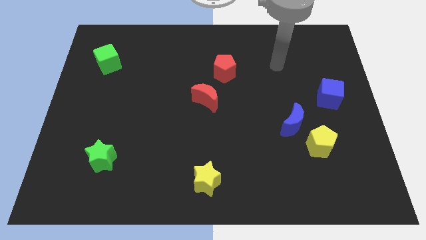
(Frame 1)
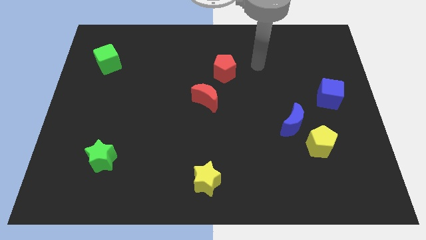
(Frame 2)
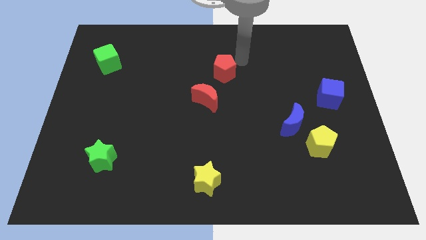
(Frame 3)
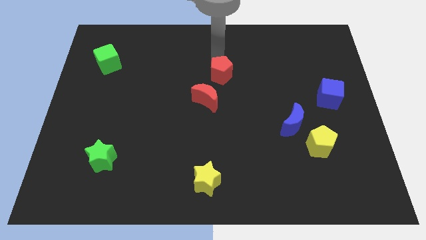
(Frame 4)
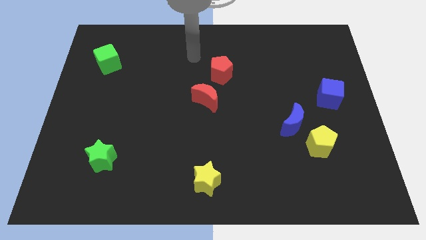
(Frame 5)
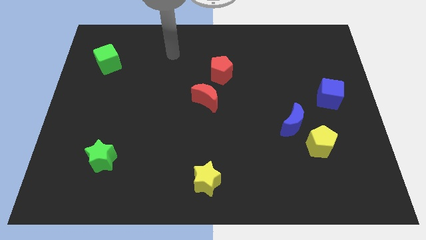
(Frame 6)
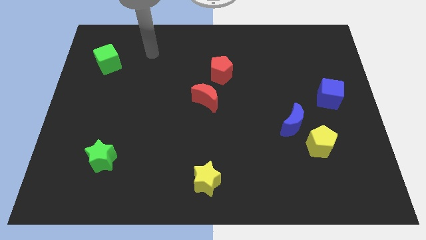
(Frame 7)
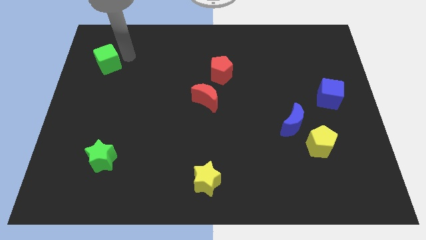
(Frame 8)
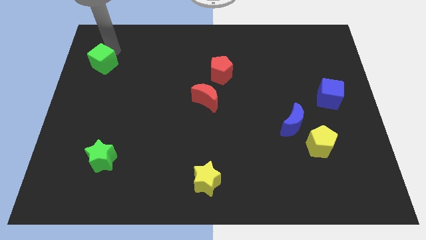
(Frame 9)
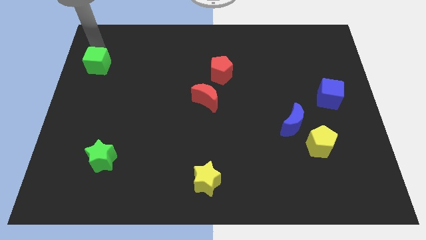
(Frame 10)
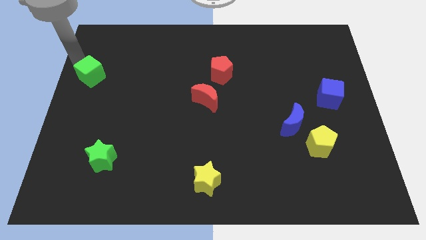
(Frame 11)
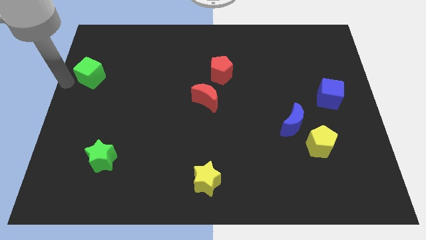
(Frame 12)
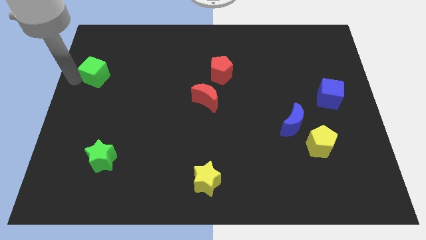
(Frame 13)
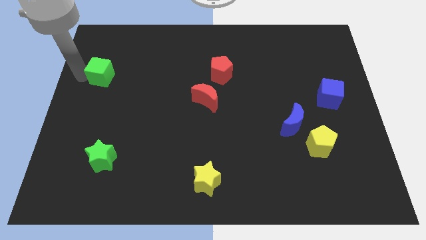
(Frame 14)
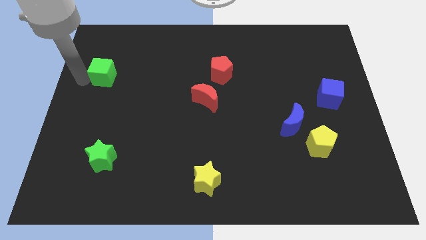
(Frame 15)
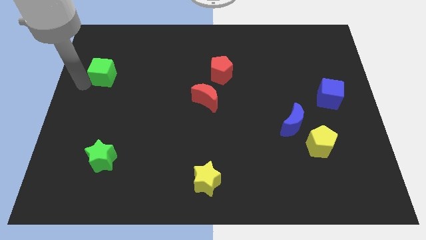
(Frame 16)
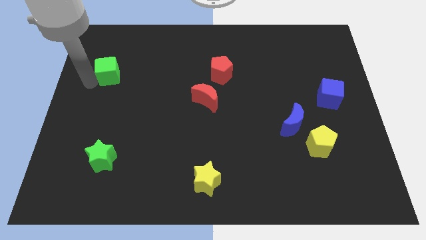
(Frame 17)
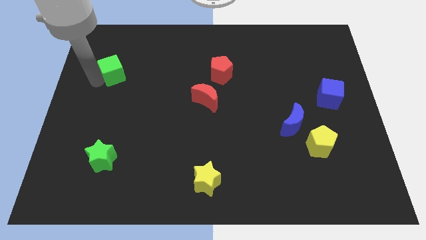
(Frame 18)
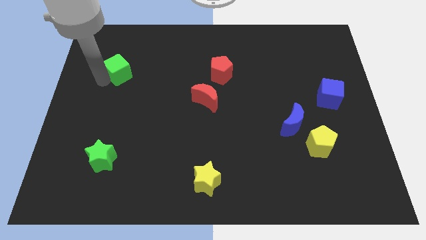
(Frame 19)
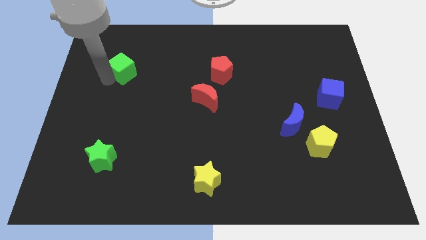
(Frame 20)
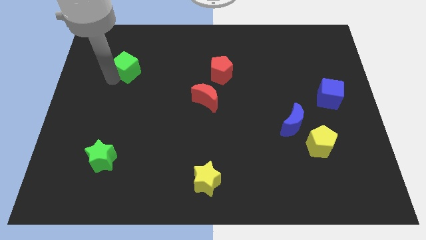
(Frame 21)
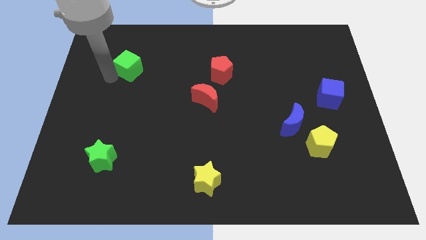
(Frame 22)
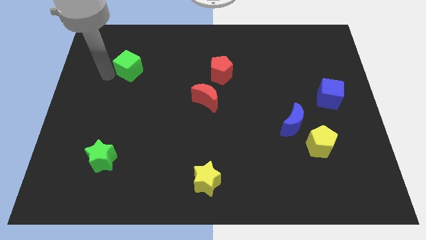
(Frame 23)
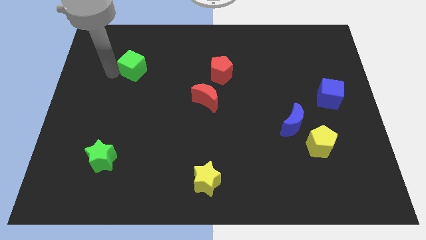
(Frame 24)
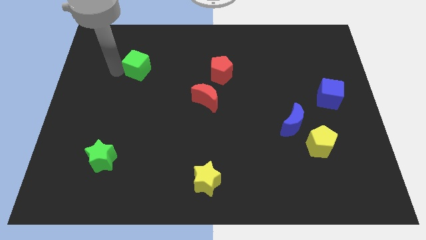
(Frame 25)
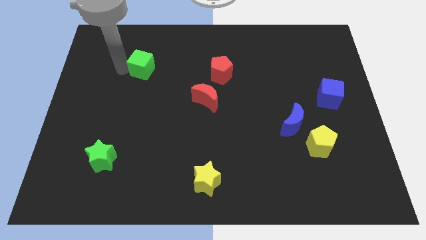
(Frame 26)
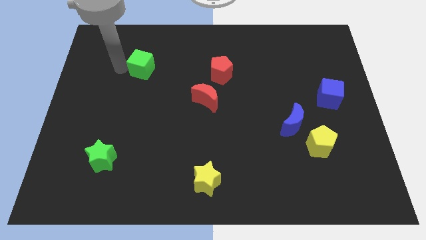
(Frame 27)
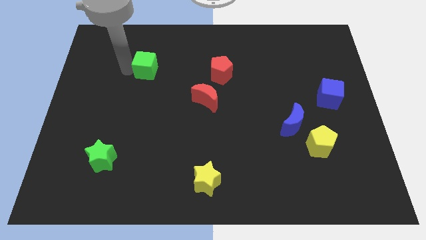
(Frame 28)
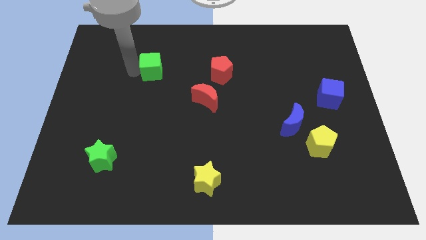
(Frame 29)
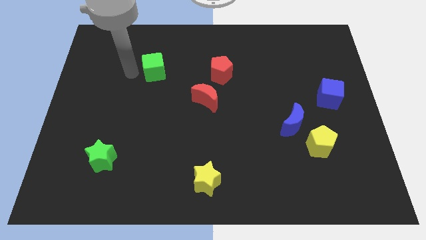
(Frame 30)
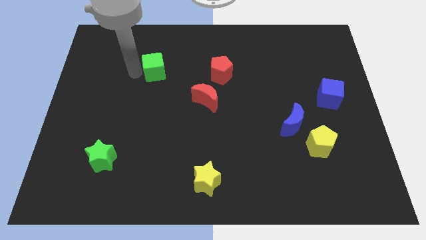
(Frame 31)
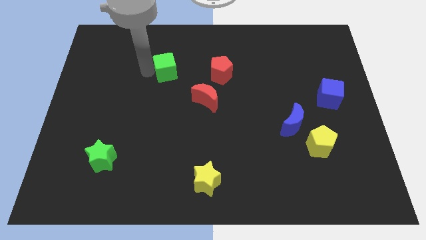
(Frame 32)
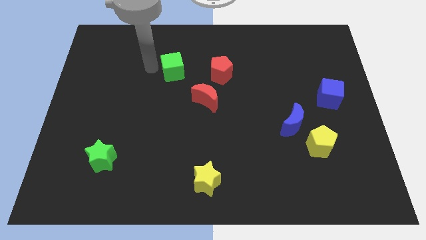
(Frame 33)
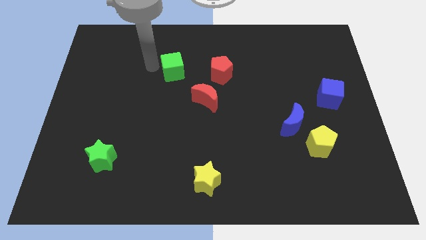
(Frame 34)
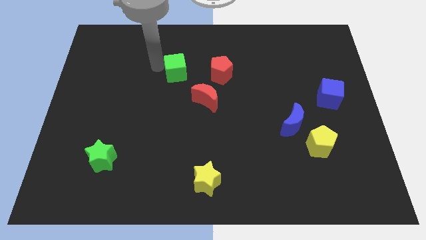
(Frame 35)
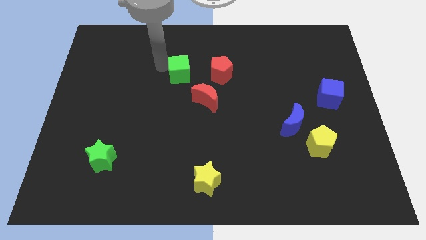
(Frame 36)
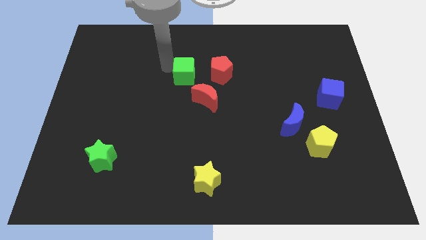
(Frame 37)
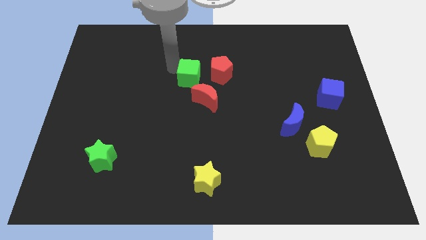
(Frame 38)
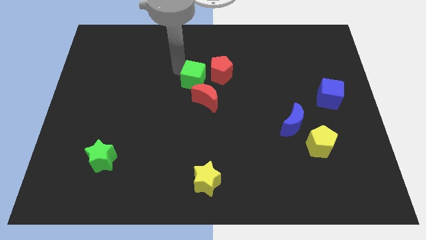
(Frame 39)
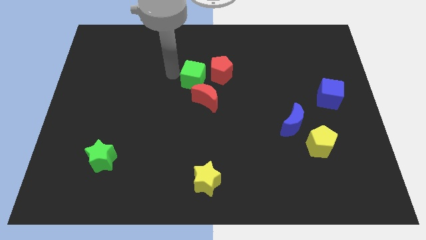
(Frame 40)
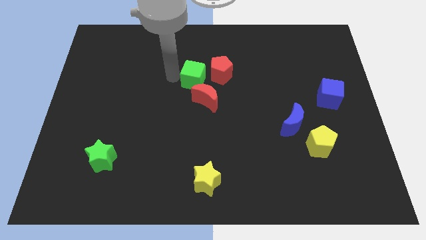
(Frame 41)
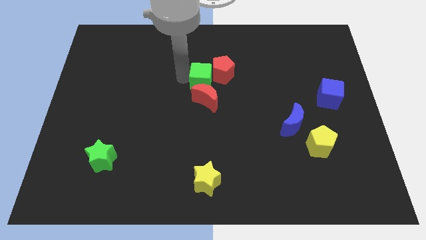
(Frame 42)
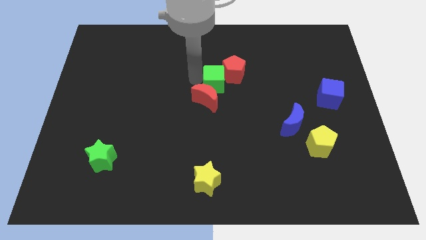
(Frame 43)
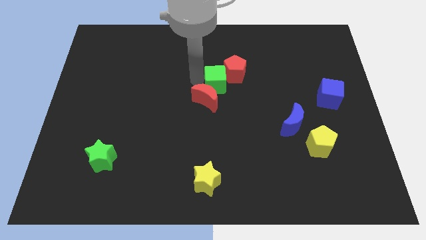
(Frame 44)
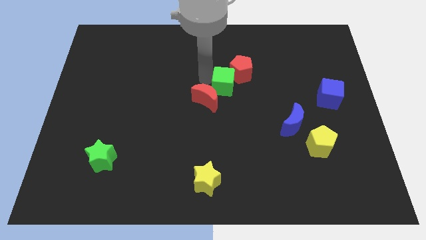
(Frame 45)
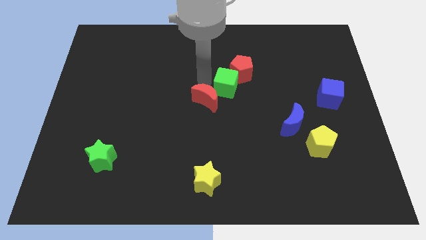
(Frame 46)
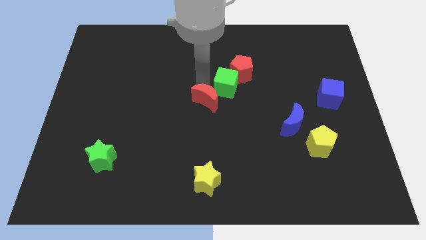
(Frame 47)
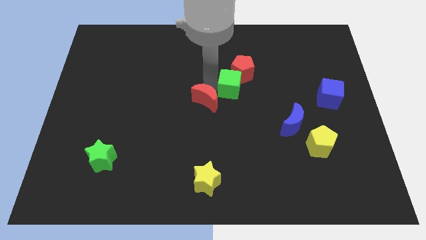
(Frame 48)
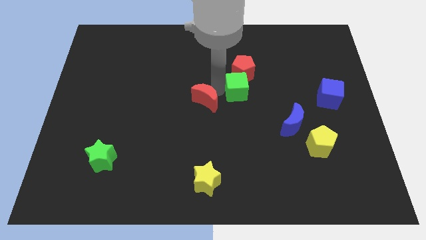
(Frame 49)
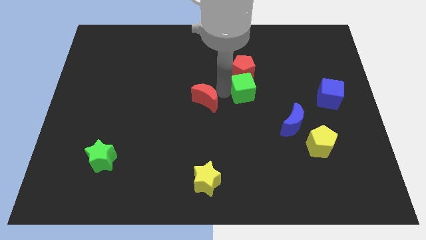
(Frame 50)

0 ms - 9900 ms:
move the green cube diagonally down and to the right of the red pentagon

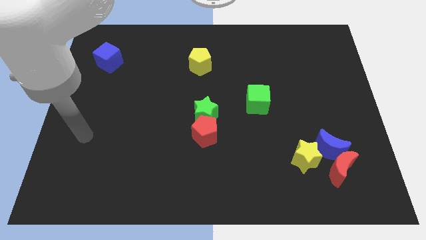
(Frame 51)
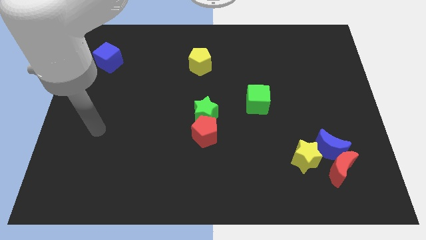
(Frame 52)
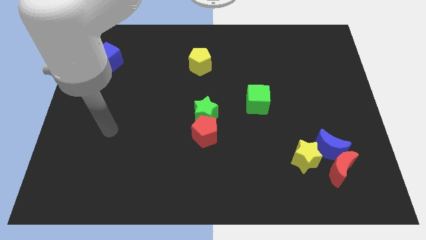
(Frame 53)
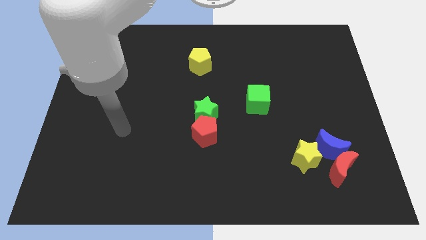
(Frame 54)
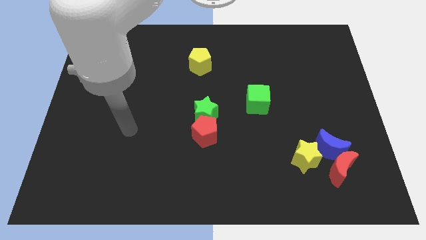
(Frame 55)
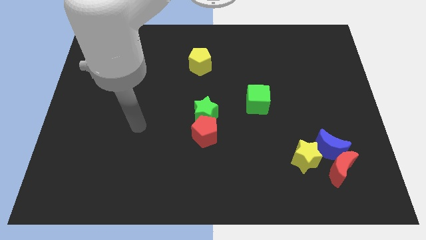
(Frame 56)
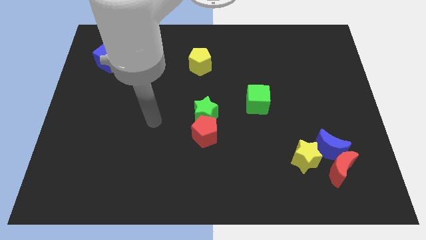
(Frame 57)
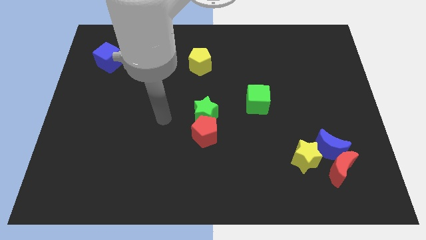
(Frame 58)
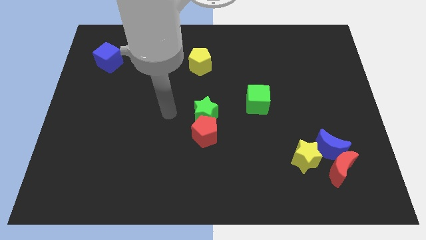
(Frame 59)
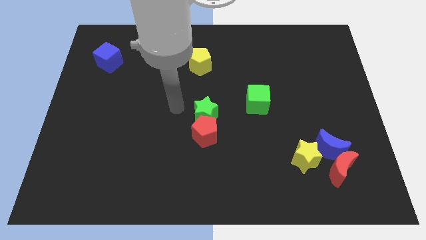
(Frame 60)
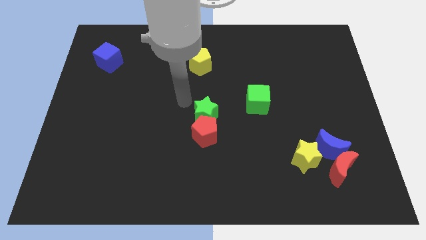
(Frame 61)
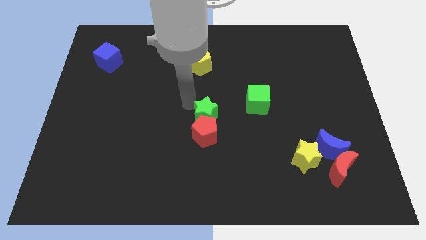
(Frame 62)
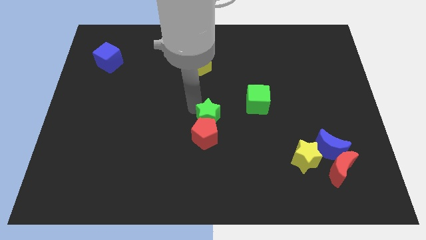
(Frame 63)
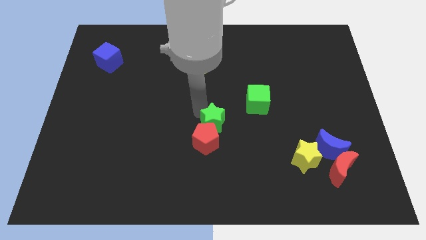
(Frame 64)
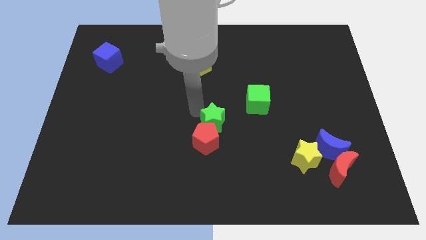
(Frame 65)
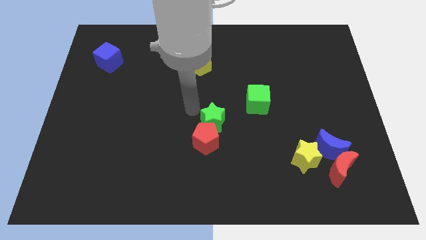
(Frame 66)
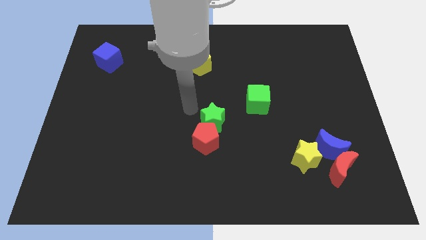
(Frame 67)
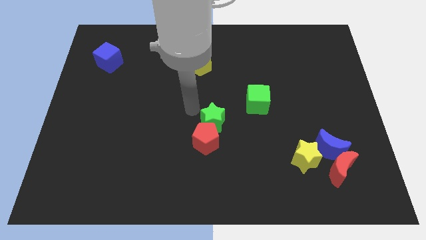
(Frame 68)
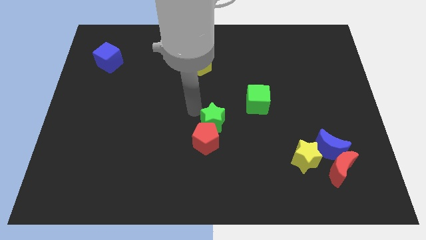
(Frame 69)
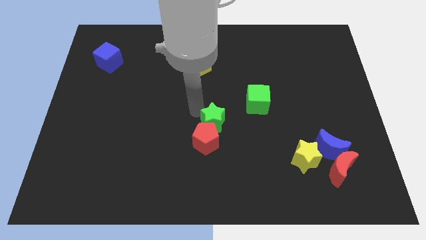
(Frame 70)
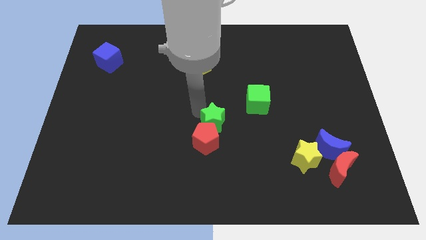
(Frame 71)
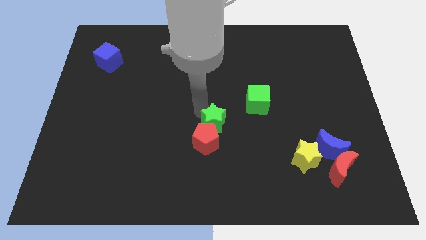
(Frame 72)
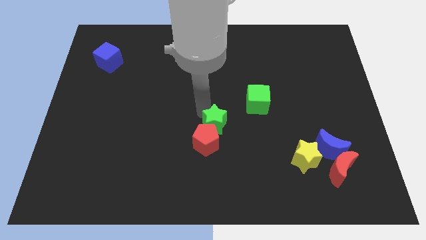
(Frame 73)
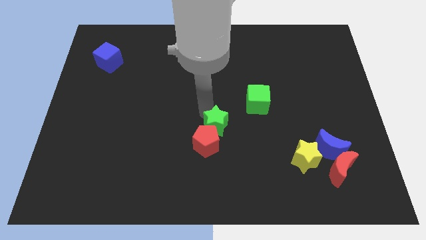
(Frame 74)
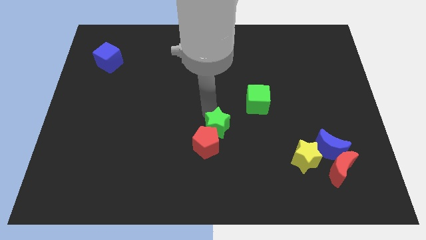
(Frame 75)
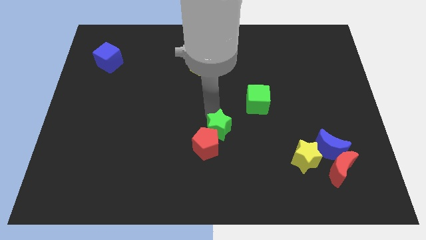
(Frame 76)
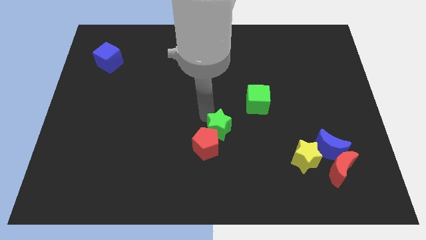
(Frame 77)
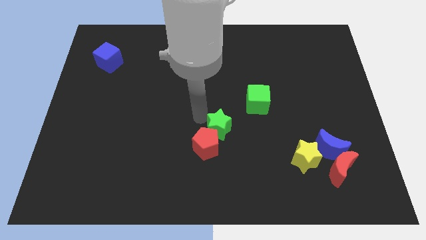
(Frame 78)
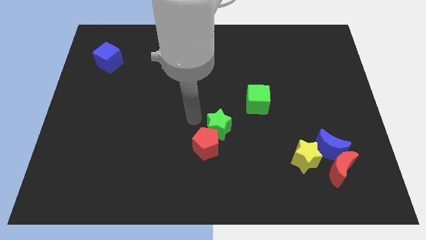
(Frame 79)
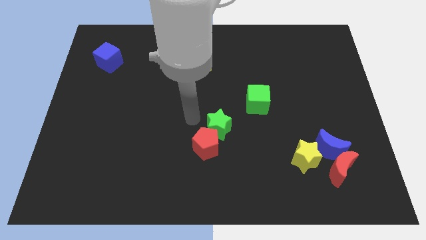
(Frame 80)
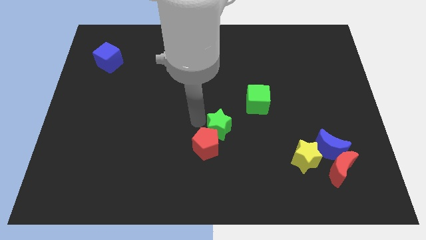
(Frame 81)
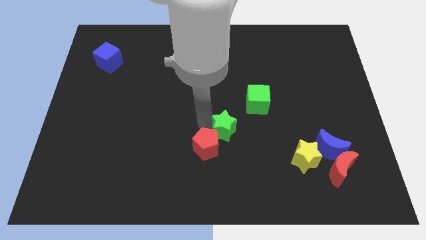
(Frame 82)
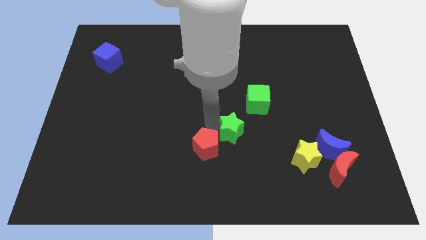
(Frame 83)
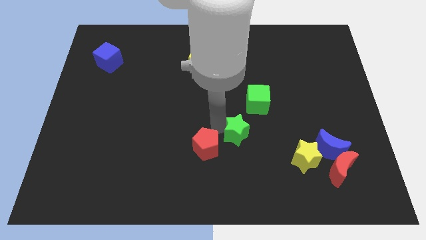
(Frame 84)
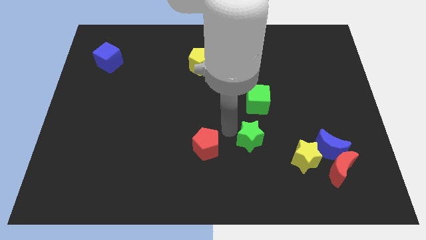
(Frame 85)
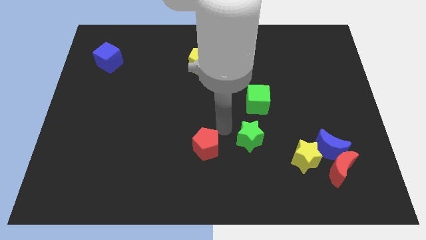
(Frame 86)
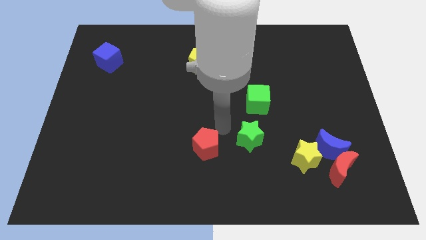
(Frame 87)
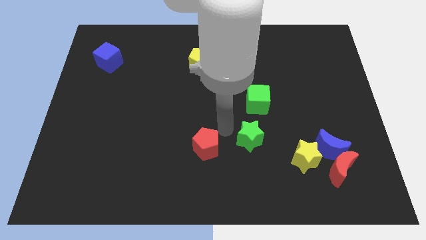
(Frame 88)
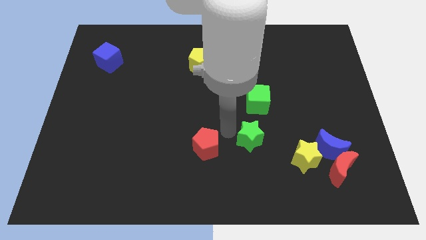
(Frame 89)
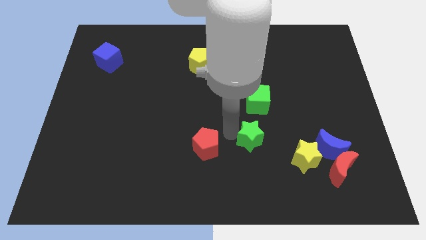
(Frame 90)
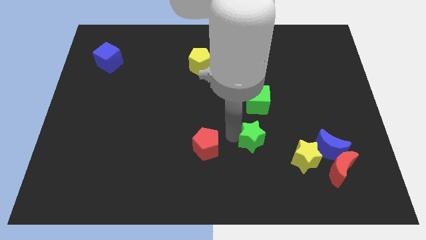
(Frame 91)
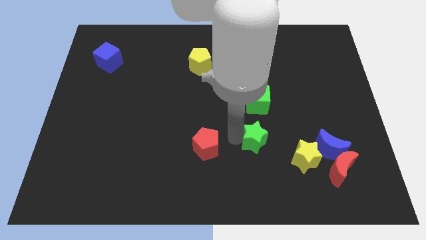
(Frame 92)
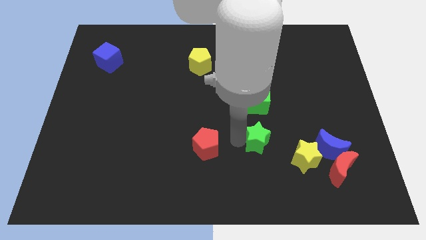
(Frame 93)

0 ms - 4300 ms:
push the green star to the left of the blue moon
